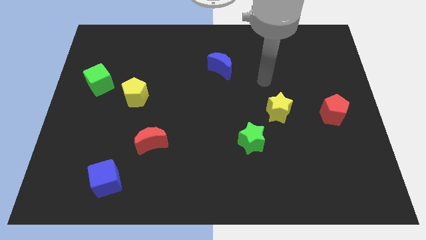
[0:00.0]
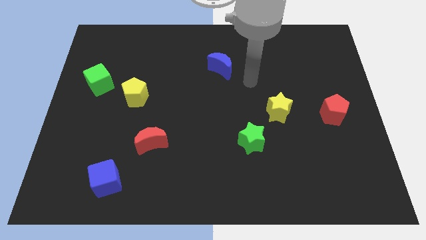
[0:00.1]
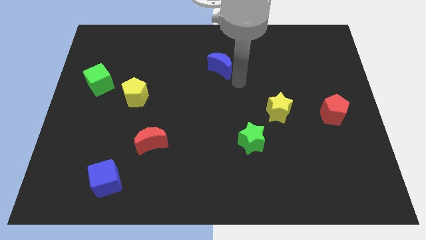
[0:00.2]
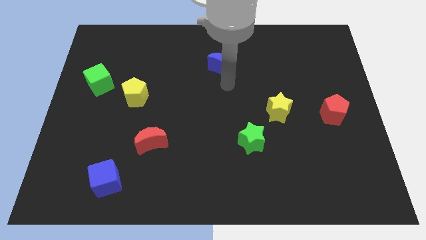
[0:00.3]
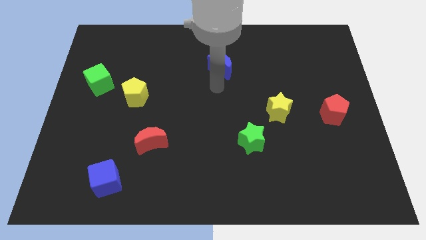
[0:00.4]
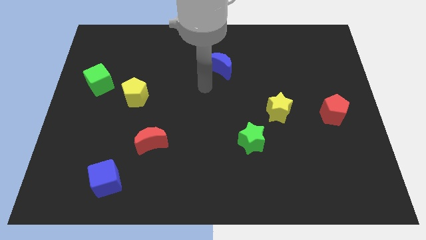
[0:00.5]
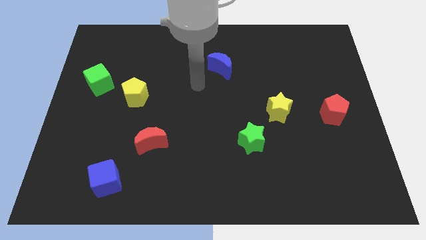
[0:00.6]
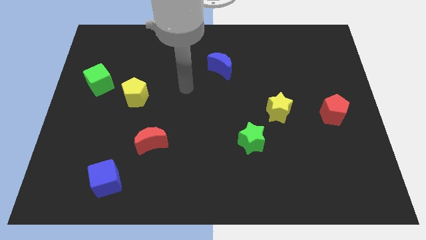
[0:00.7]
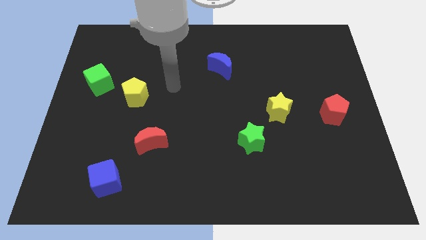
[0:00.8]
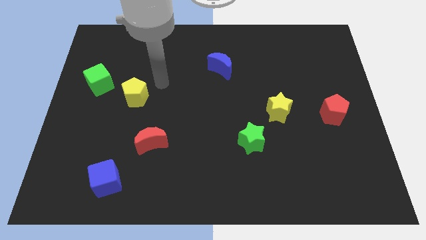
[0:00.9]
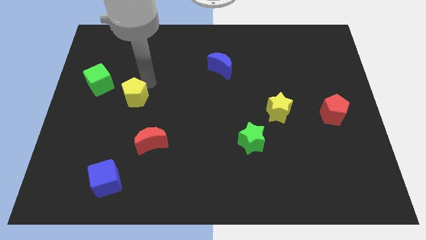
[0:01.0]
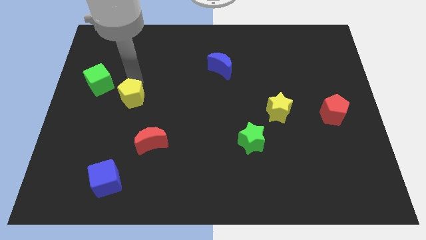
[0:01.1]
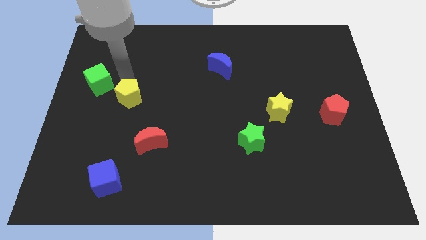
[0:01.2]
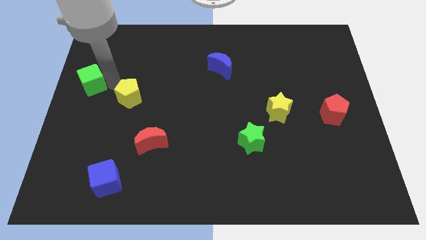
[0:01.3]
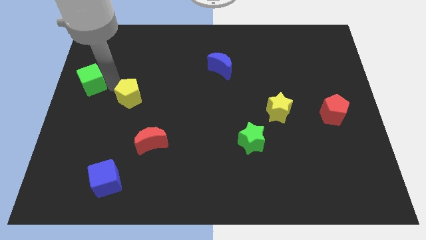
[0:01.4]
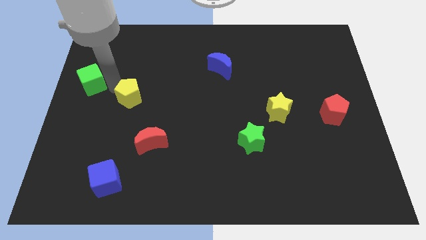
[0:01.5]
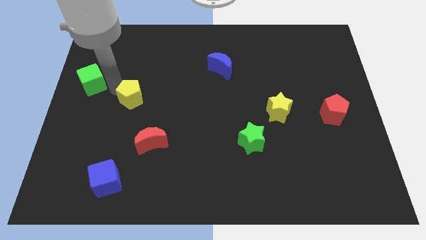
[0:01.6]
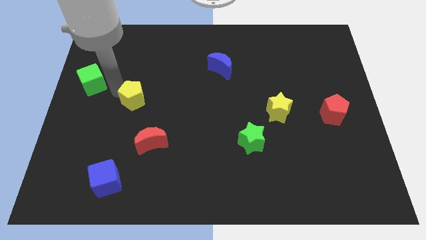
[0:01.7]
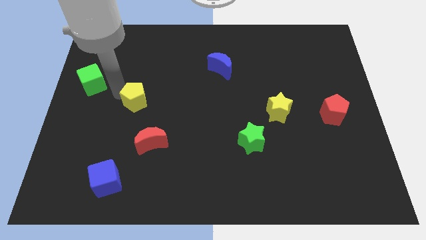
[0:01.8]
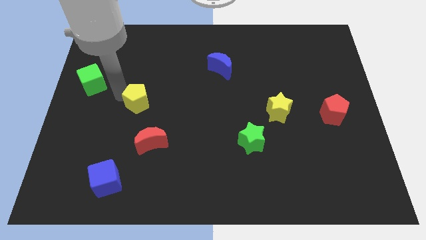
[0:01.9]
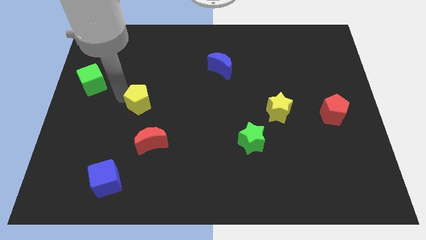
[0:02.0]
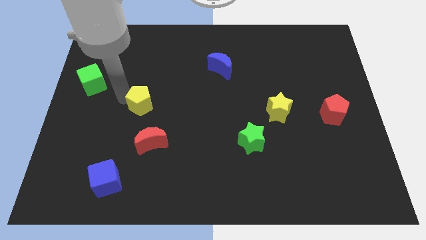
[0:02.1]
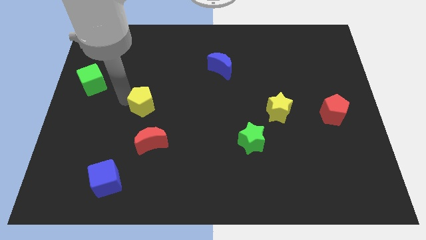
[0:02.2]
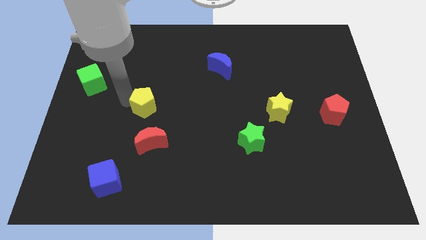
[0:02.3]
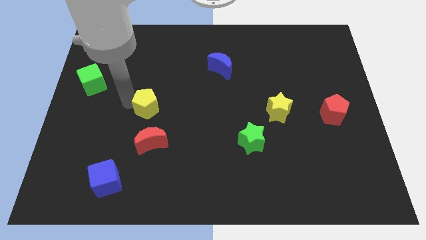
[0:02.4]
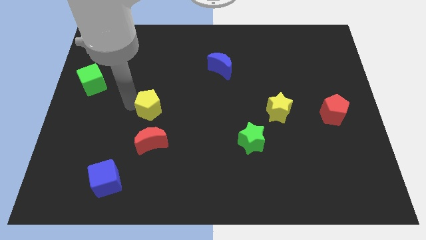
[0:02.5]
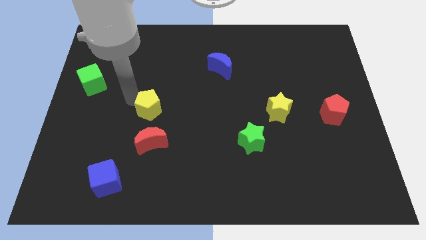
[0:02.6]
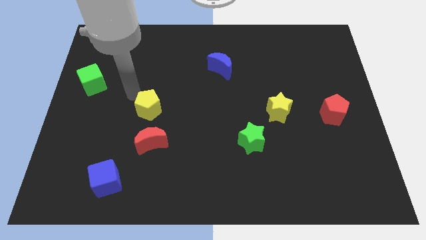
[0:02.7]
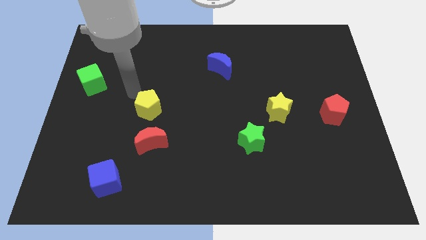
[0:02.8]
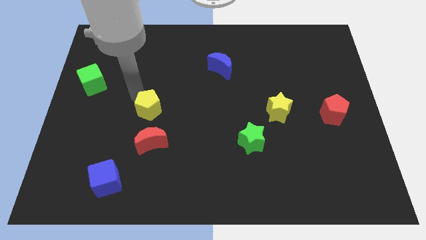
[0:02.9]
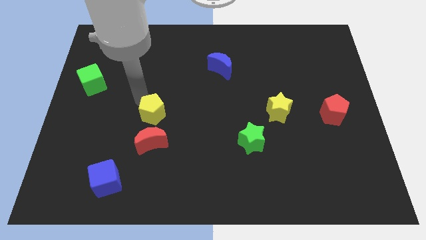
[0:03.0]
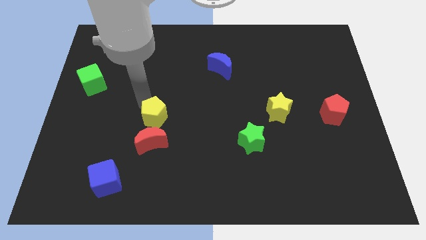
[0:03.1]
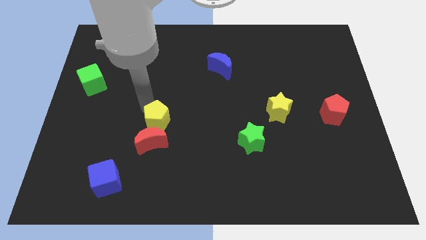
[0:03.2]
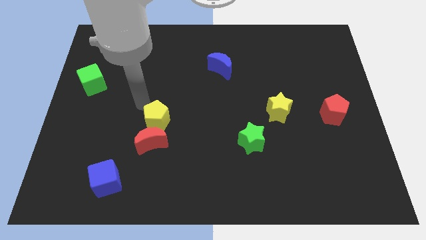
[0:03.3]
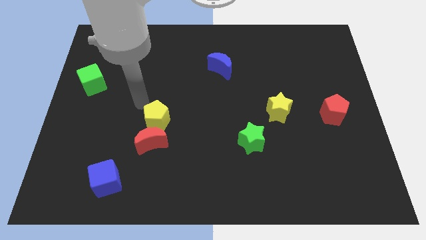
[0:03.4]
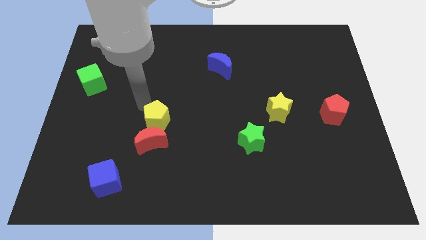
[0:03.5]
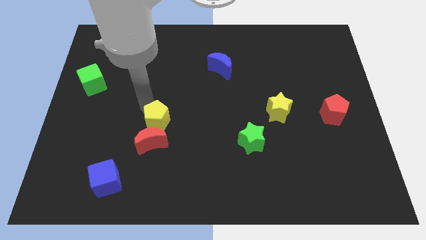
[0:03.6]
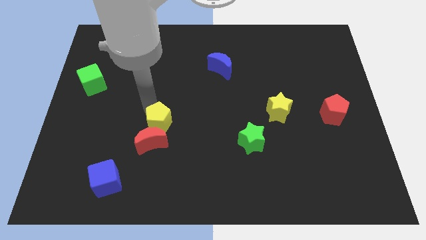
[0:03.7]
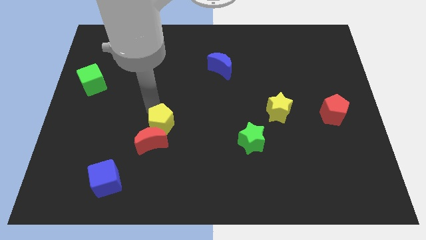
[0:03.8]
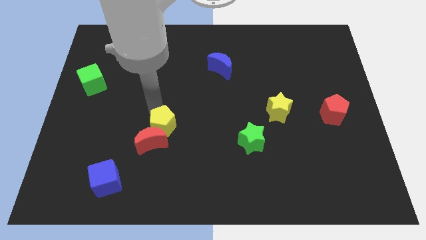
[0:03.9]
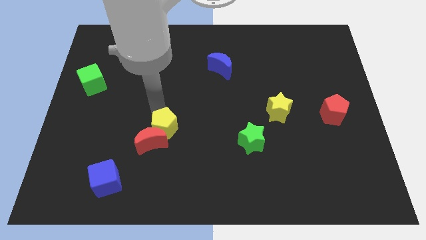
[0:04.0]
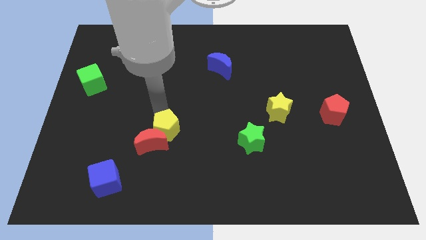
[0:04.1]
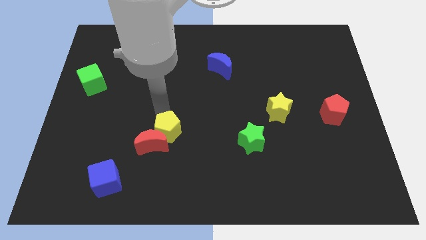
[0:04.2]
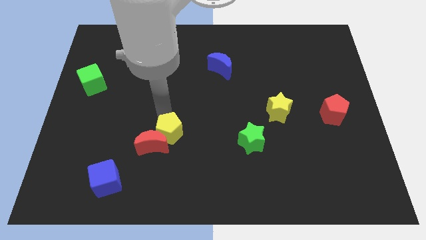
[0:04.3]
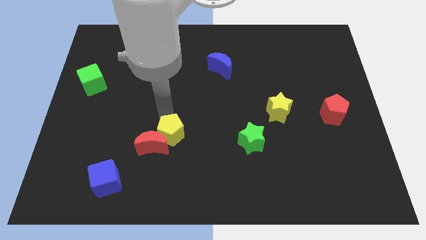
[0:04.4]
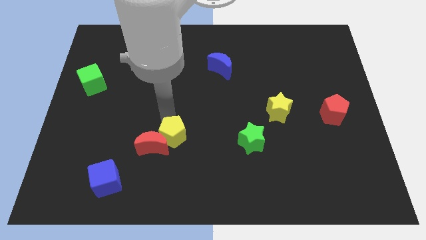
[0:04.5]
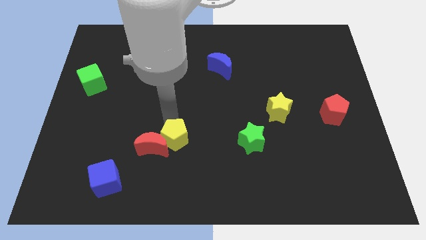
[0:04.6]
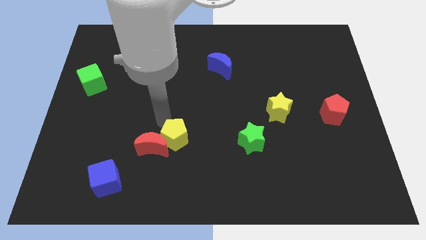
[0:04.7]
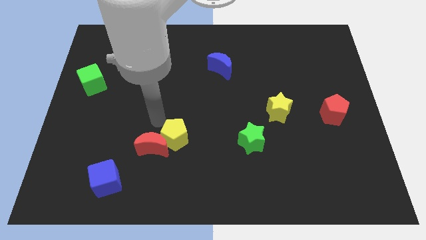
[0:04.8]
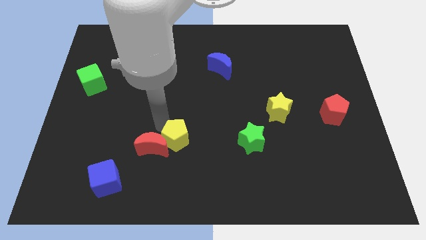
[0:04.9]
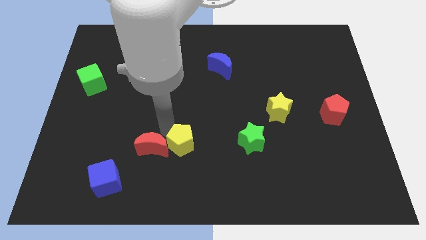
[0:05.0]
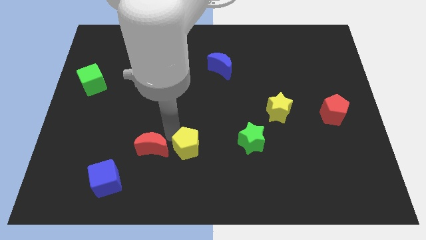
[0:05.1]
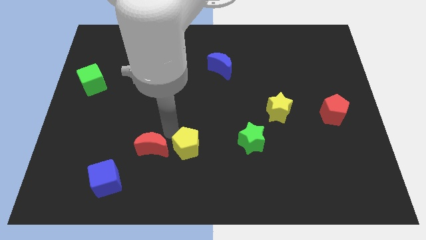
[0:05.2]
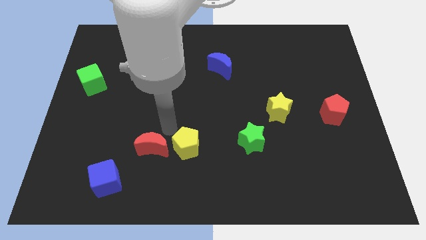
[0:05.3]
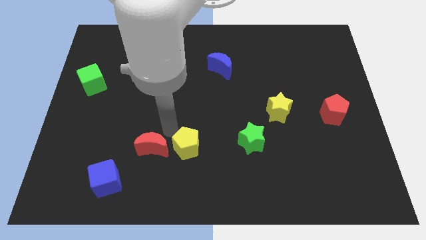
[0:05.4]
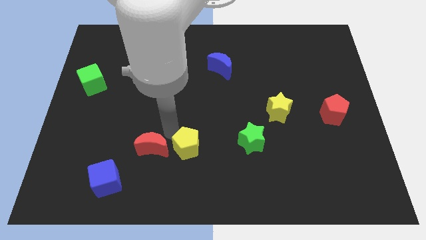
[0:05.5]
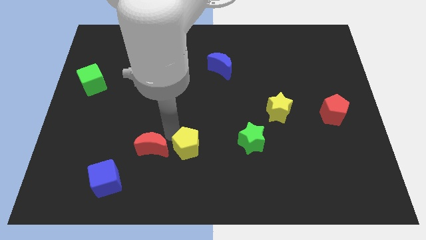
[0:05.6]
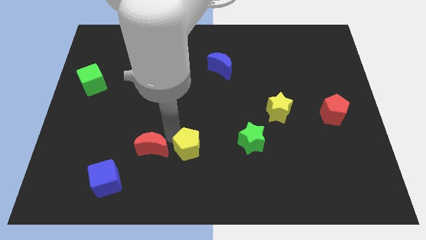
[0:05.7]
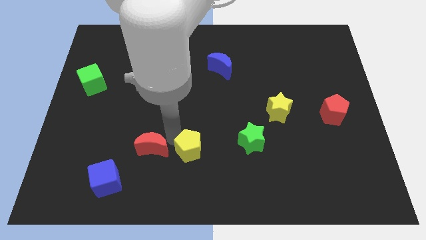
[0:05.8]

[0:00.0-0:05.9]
move the yellow pentagon diagonally downwards and to the right

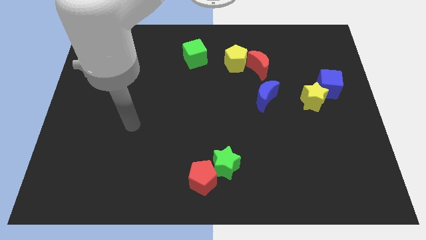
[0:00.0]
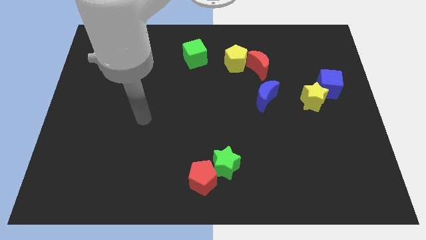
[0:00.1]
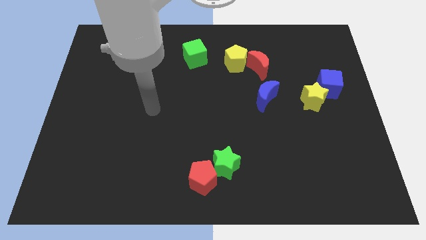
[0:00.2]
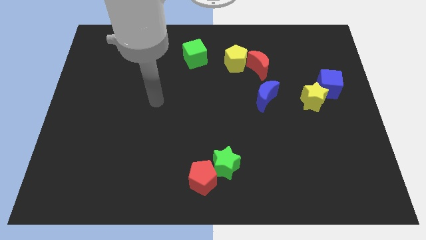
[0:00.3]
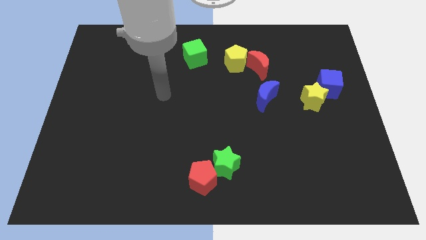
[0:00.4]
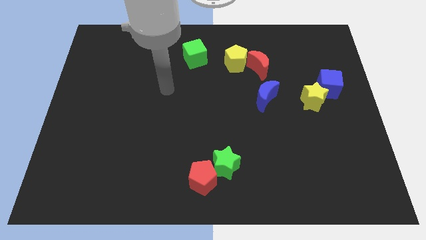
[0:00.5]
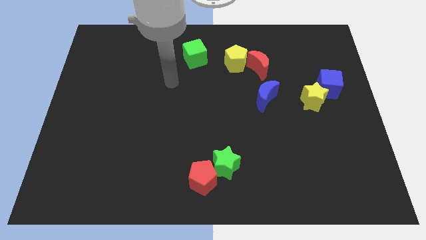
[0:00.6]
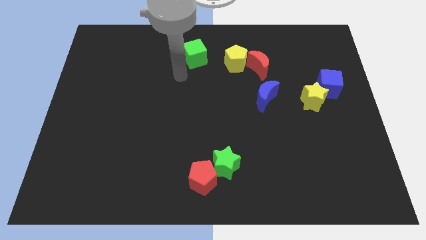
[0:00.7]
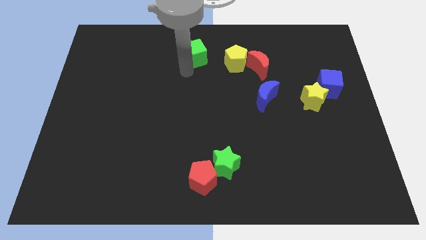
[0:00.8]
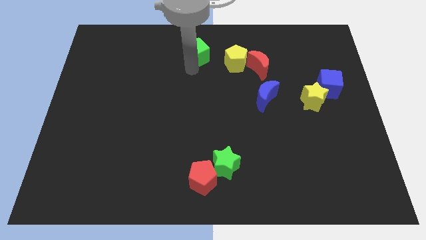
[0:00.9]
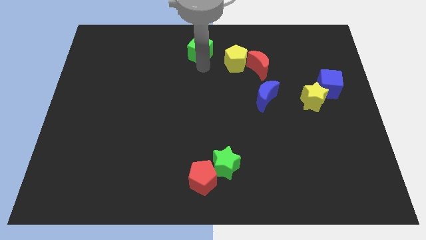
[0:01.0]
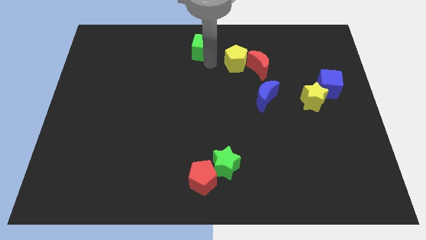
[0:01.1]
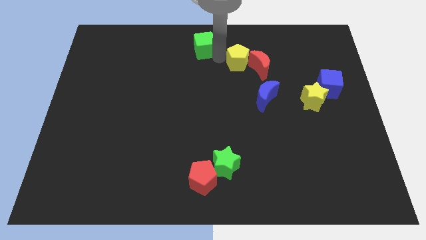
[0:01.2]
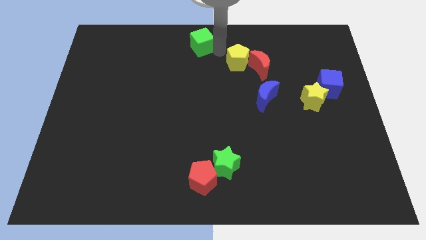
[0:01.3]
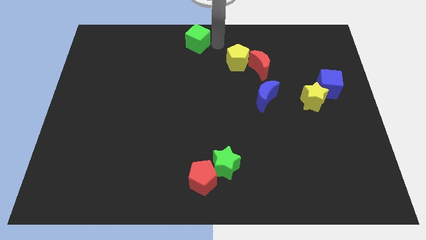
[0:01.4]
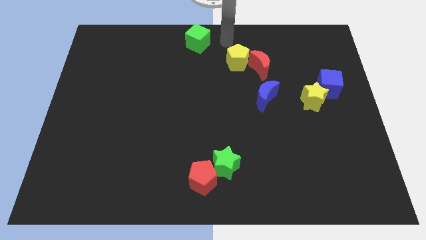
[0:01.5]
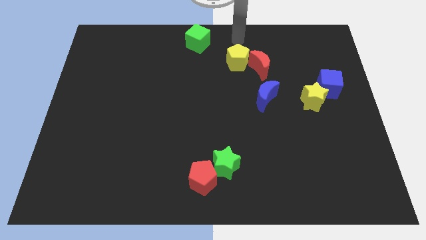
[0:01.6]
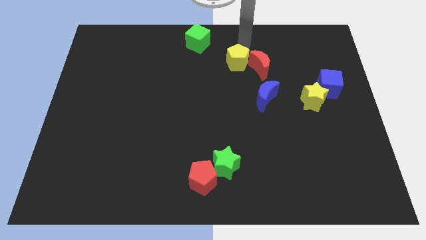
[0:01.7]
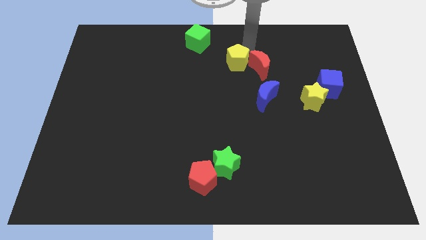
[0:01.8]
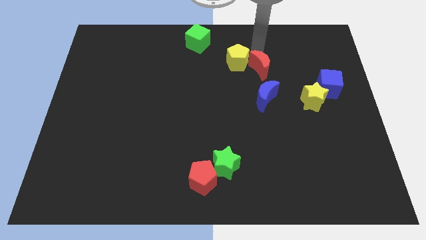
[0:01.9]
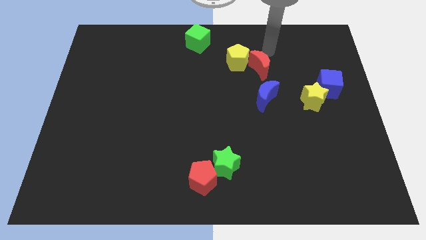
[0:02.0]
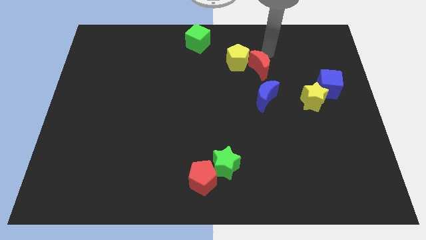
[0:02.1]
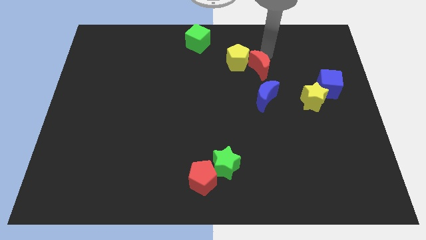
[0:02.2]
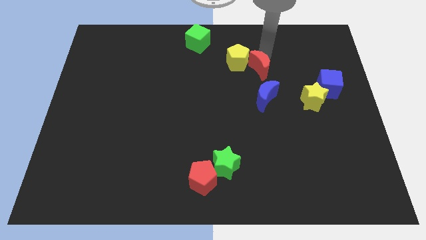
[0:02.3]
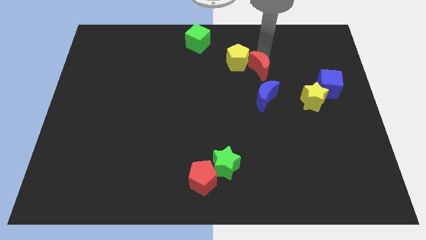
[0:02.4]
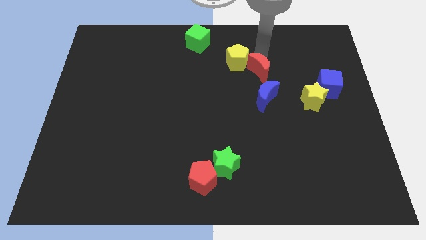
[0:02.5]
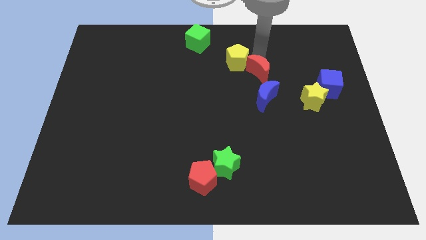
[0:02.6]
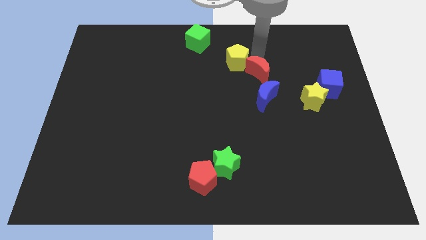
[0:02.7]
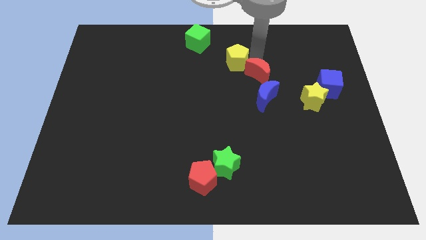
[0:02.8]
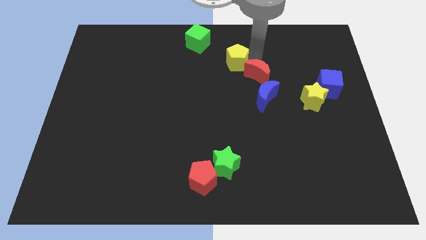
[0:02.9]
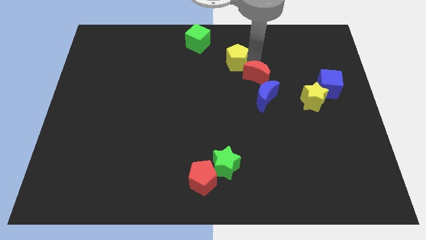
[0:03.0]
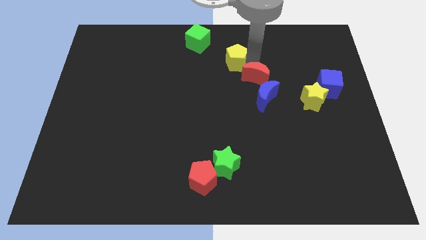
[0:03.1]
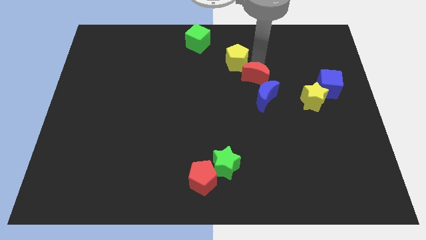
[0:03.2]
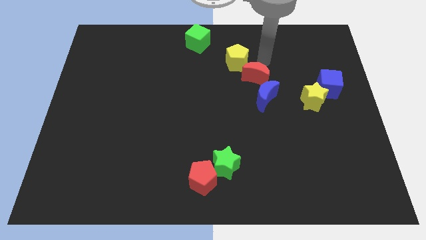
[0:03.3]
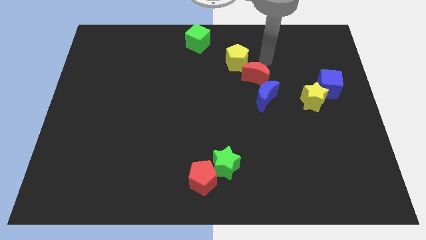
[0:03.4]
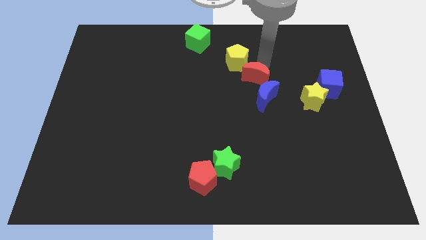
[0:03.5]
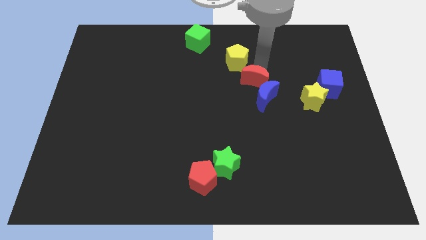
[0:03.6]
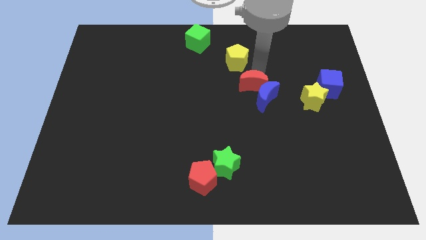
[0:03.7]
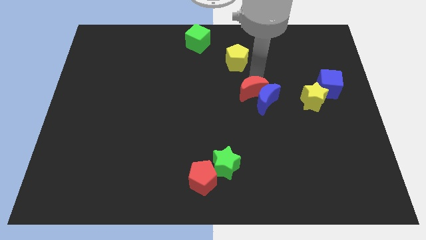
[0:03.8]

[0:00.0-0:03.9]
slide the red moon downwards a bit
